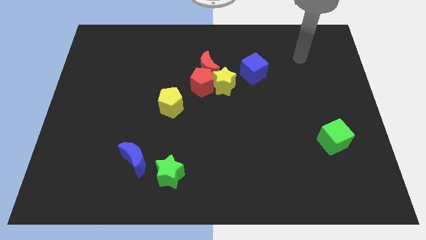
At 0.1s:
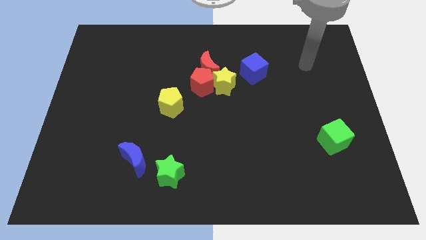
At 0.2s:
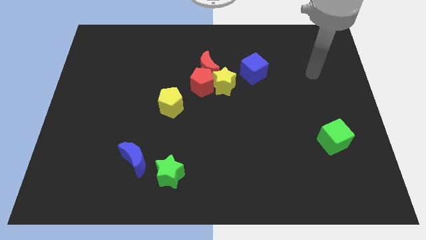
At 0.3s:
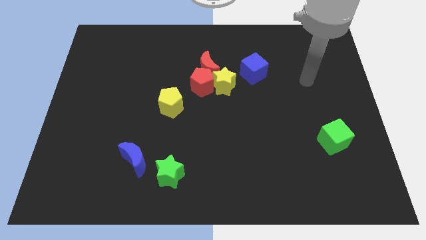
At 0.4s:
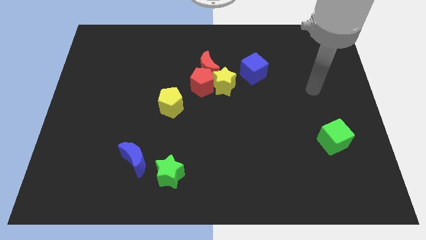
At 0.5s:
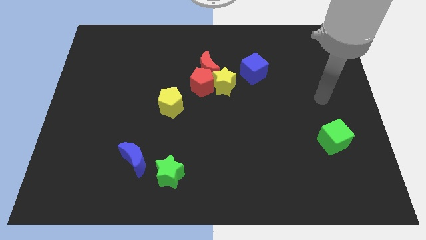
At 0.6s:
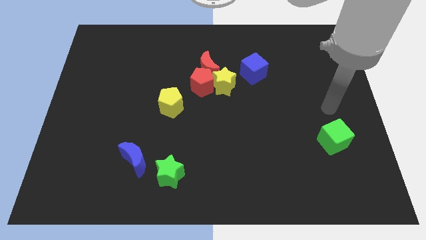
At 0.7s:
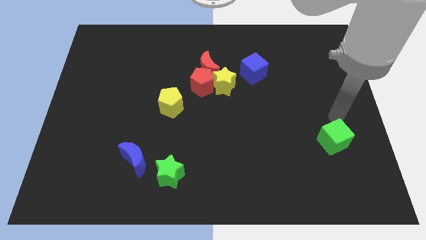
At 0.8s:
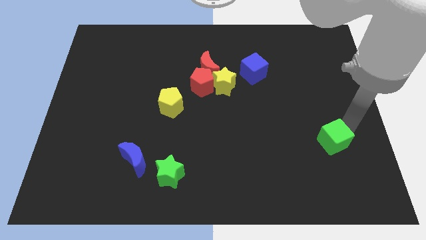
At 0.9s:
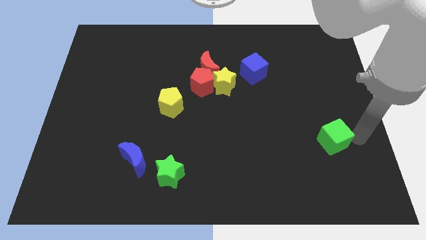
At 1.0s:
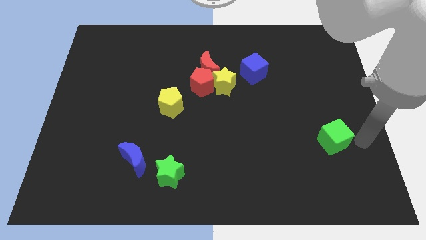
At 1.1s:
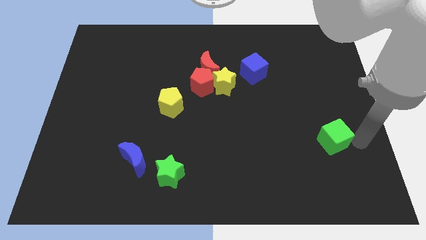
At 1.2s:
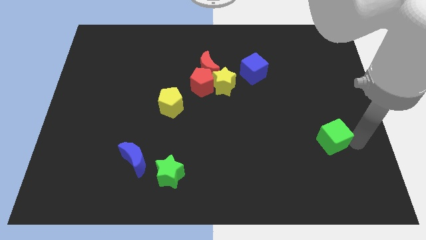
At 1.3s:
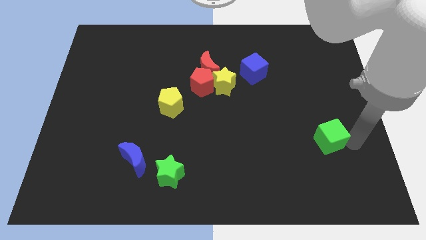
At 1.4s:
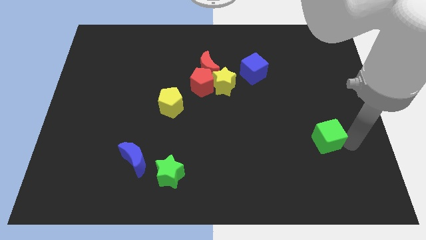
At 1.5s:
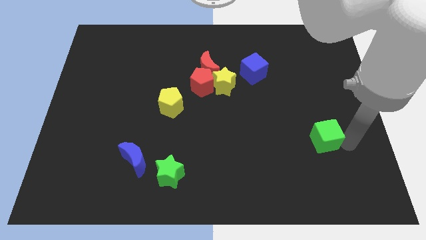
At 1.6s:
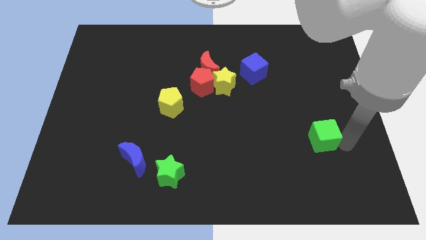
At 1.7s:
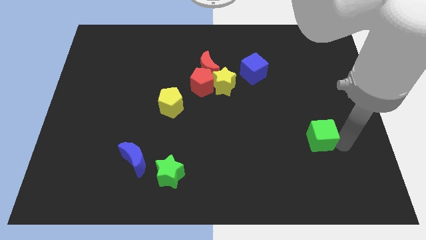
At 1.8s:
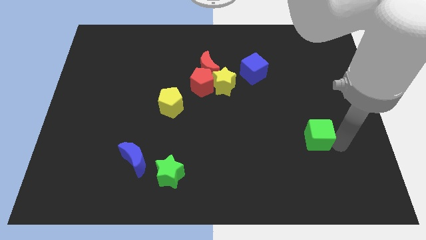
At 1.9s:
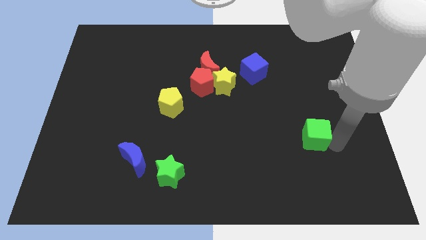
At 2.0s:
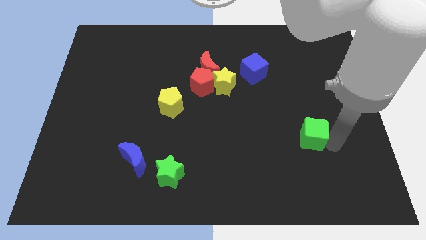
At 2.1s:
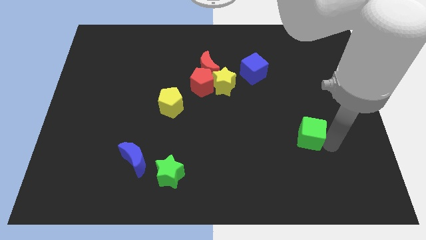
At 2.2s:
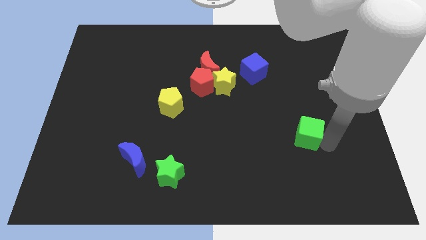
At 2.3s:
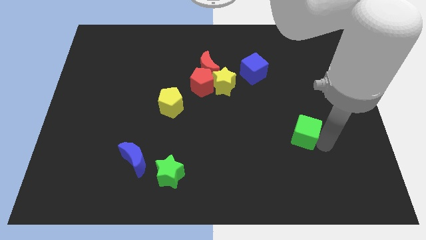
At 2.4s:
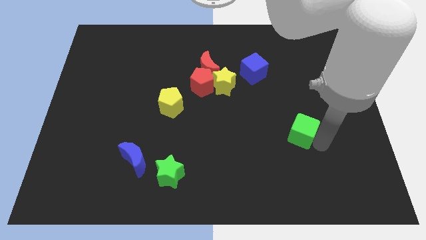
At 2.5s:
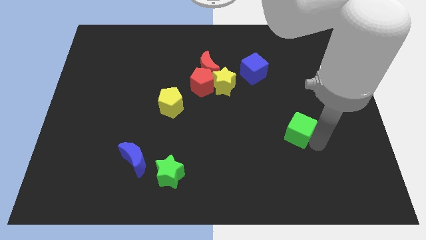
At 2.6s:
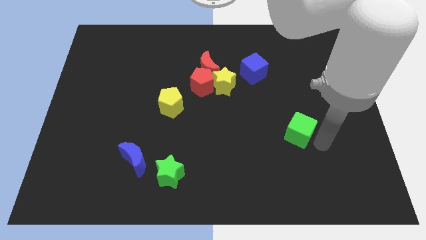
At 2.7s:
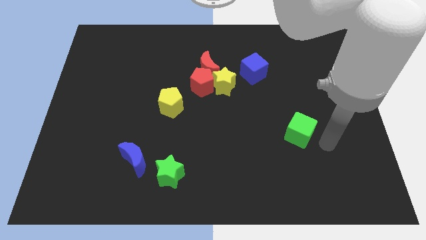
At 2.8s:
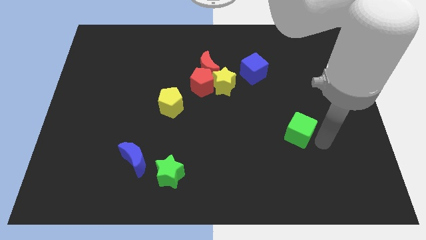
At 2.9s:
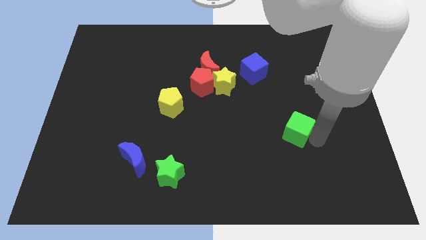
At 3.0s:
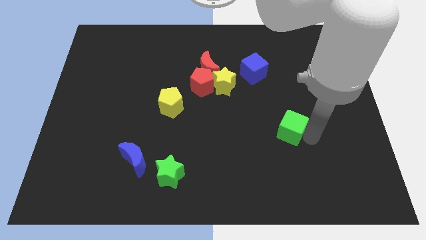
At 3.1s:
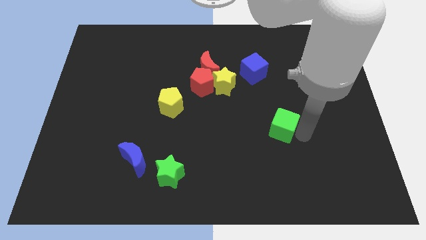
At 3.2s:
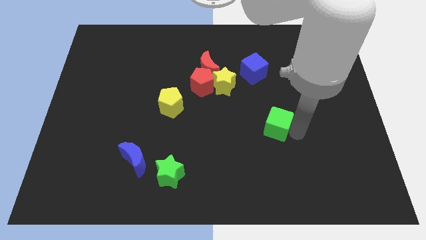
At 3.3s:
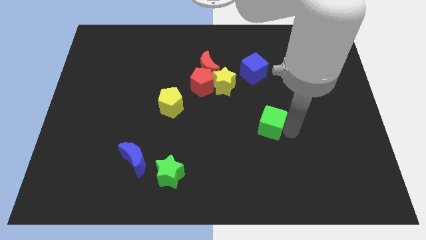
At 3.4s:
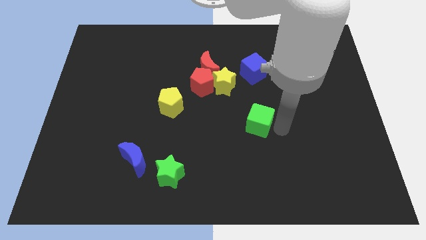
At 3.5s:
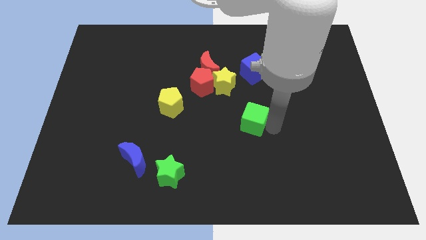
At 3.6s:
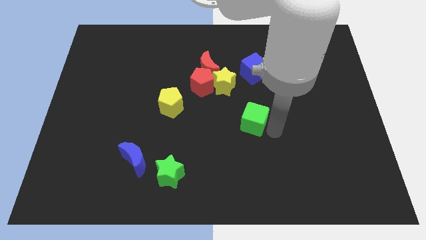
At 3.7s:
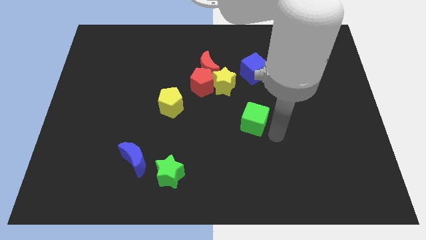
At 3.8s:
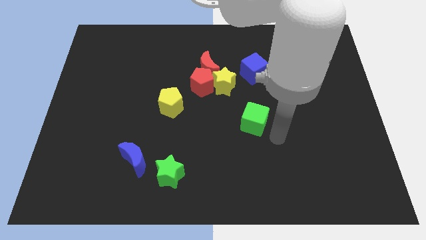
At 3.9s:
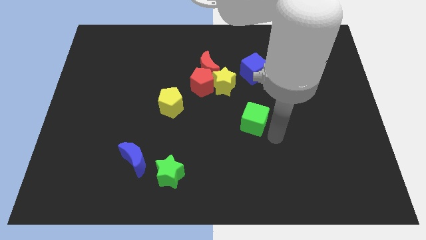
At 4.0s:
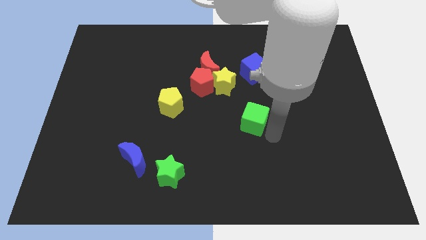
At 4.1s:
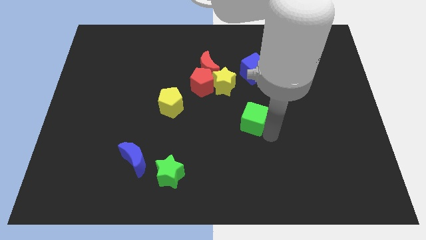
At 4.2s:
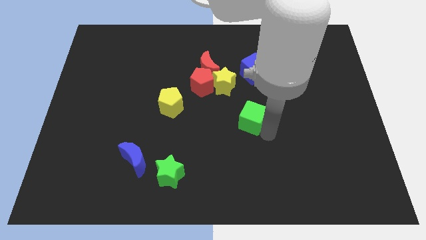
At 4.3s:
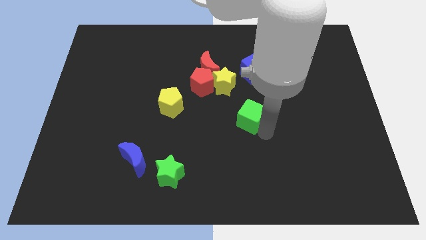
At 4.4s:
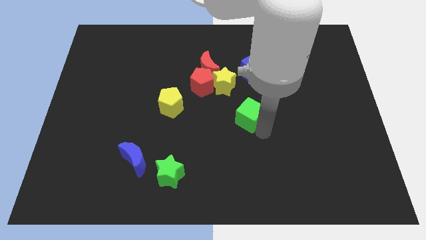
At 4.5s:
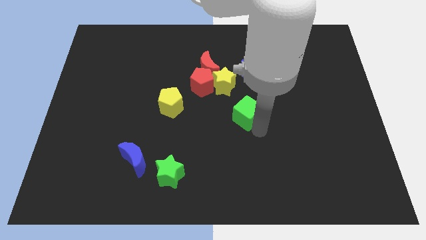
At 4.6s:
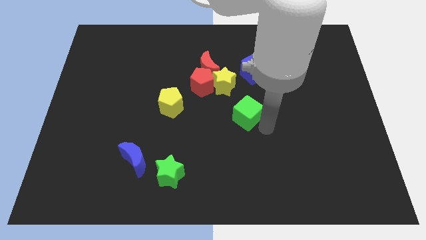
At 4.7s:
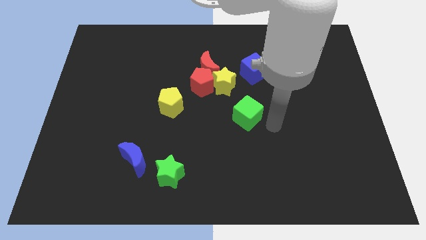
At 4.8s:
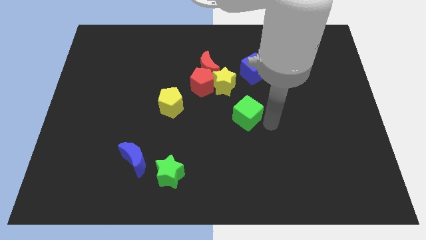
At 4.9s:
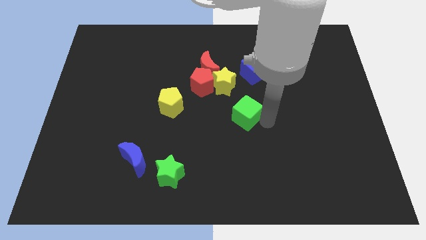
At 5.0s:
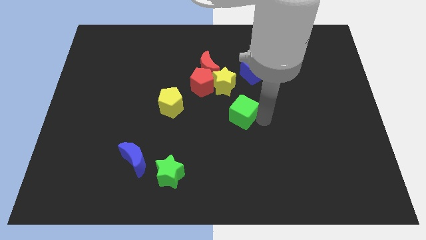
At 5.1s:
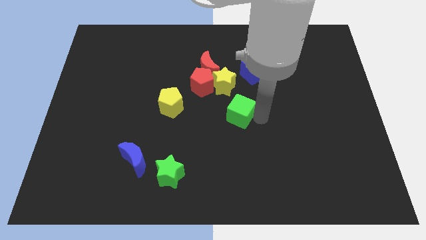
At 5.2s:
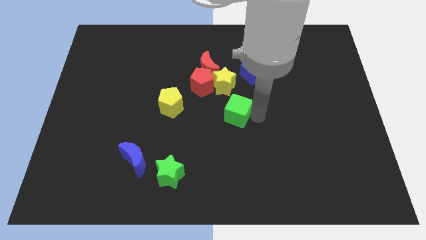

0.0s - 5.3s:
move the green cube to the right of the yellow pentagon

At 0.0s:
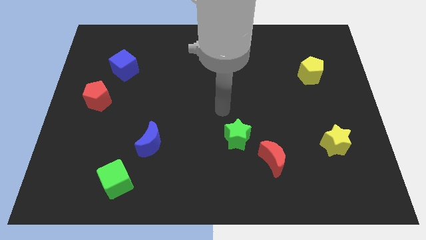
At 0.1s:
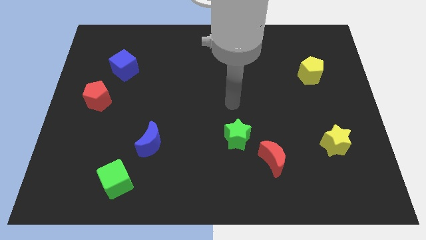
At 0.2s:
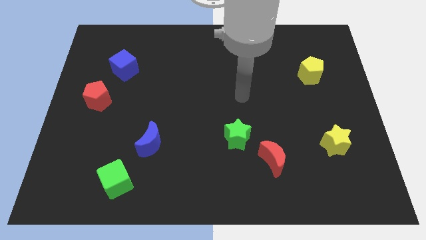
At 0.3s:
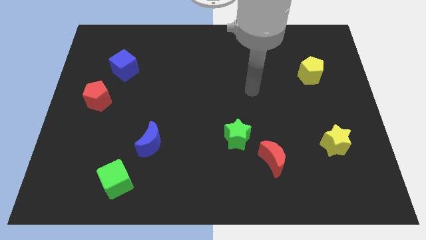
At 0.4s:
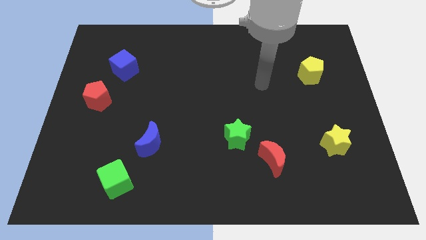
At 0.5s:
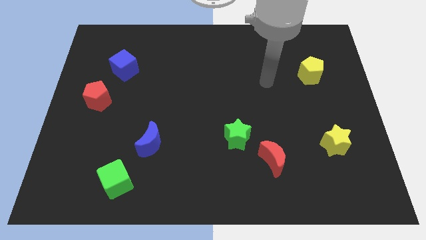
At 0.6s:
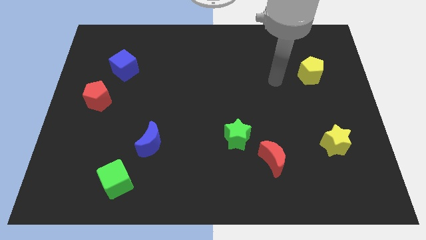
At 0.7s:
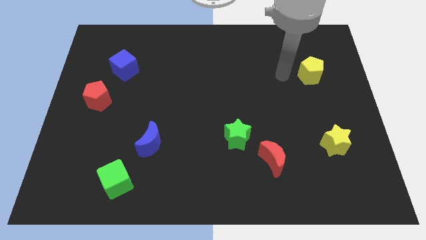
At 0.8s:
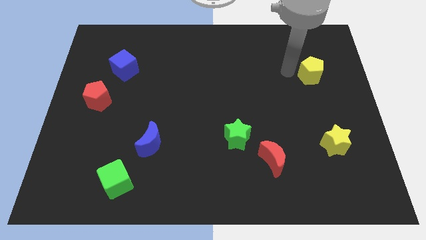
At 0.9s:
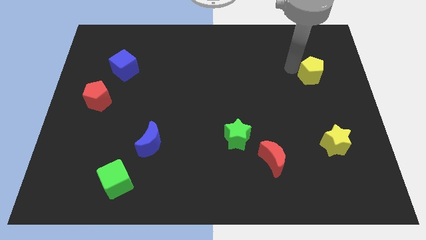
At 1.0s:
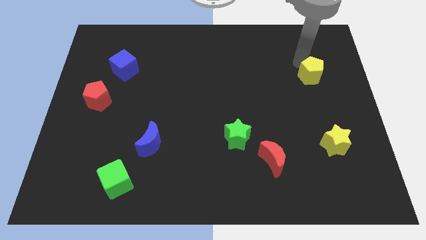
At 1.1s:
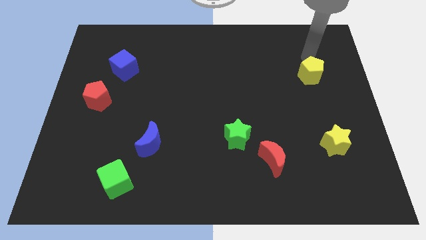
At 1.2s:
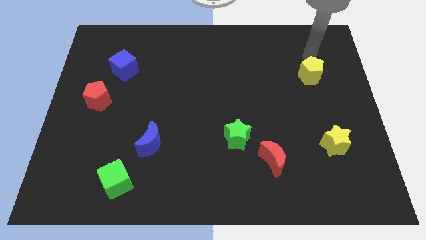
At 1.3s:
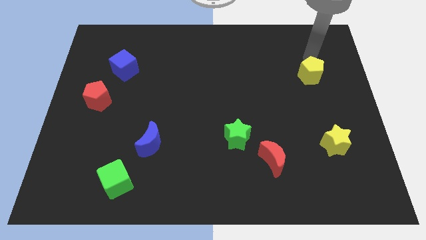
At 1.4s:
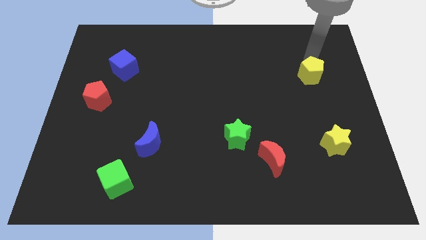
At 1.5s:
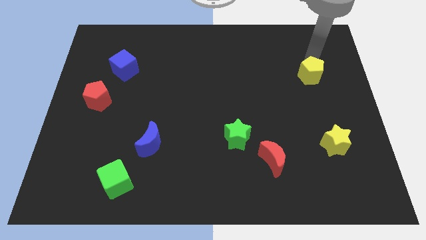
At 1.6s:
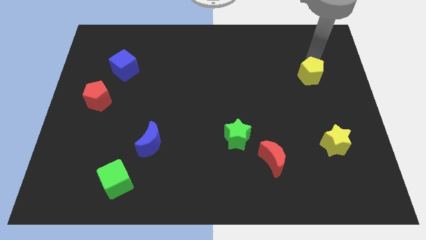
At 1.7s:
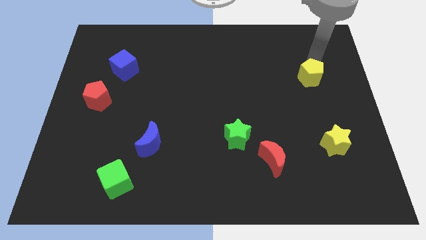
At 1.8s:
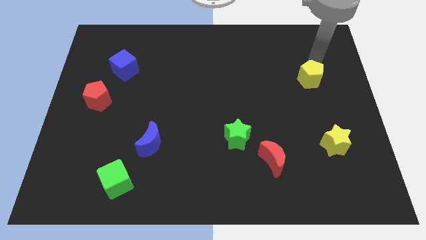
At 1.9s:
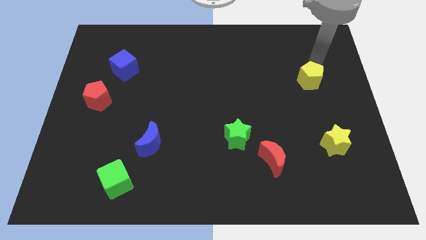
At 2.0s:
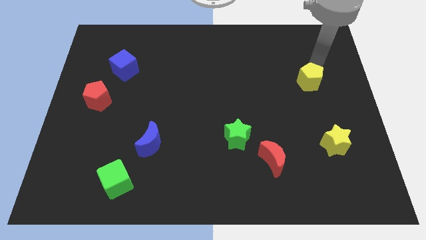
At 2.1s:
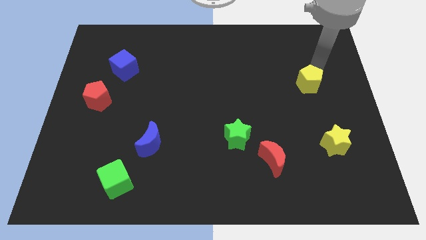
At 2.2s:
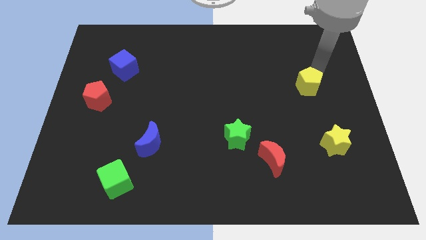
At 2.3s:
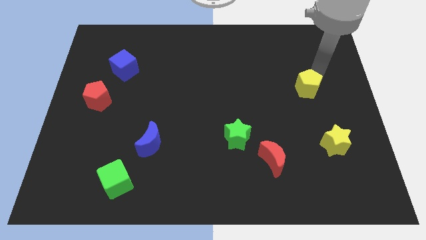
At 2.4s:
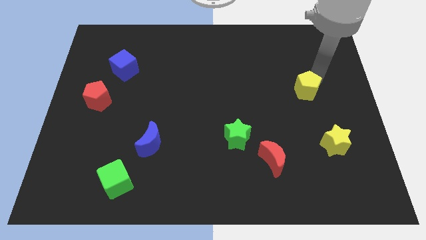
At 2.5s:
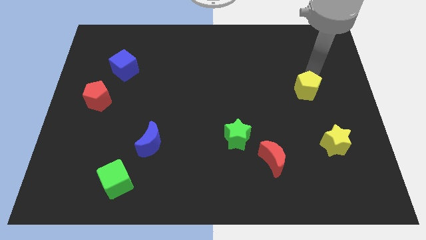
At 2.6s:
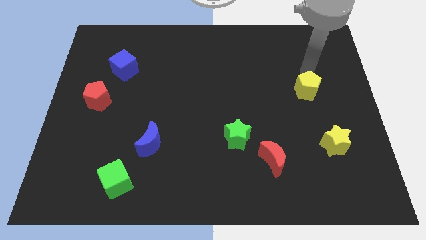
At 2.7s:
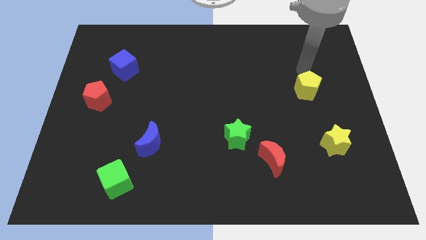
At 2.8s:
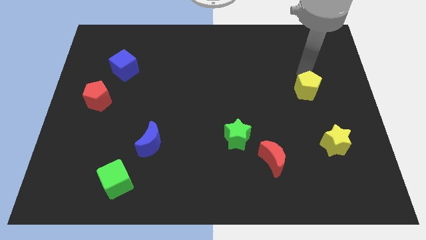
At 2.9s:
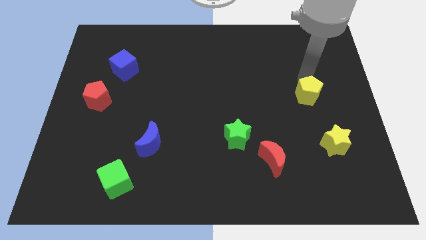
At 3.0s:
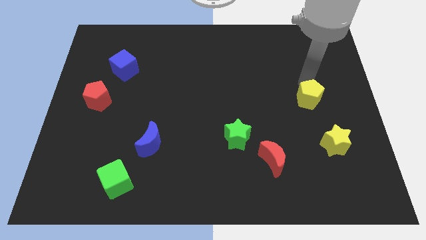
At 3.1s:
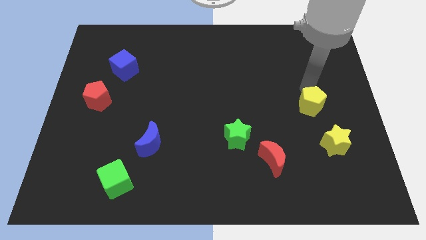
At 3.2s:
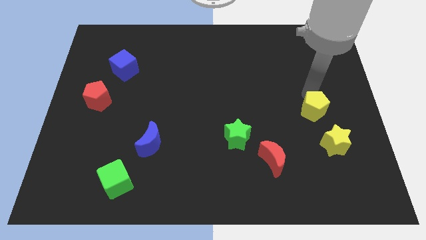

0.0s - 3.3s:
move the yellow pentagon diagonally up and to the left of the yellow star
